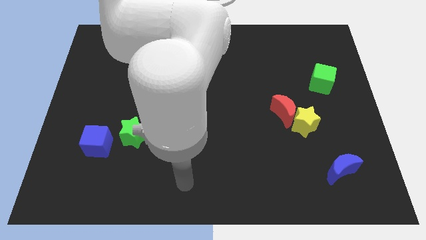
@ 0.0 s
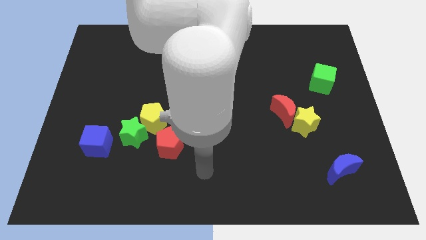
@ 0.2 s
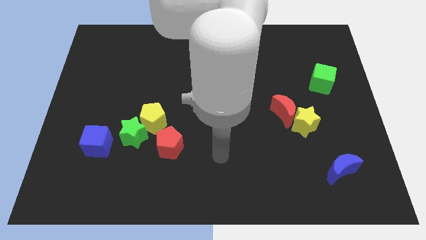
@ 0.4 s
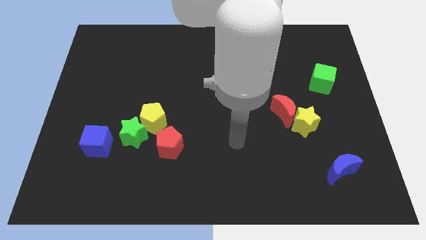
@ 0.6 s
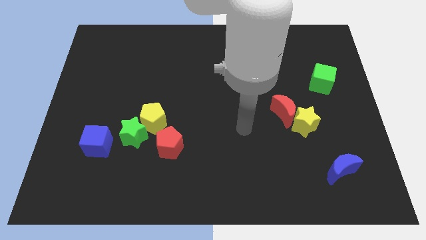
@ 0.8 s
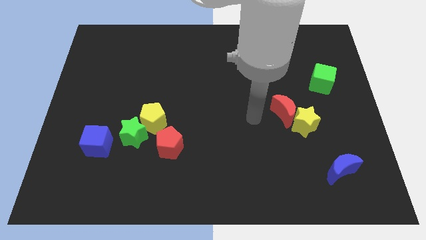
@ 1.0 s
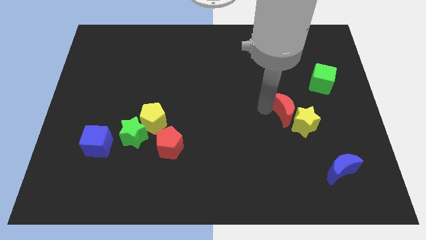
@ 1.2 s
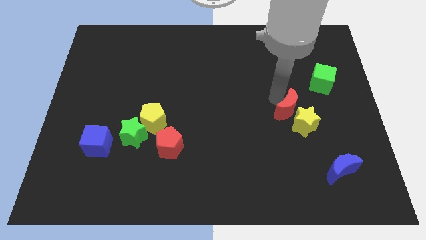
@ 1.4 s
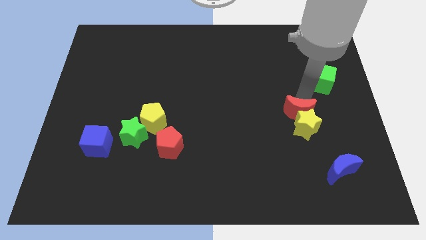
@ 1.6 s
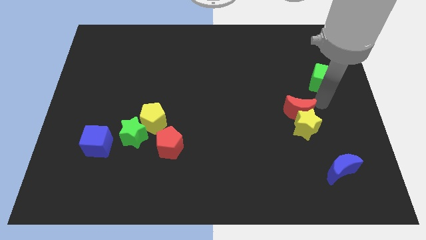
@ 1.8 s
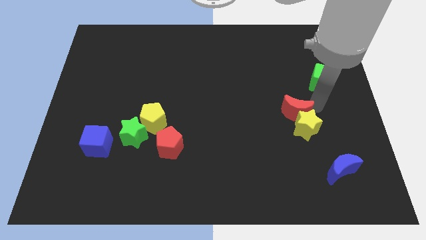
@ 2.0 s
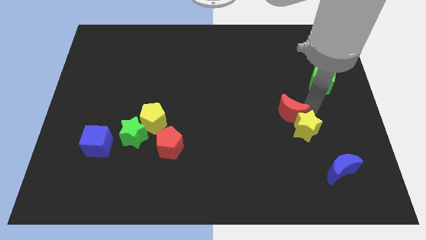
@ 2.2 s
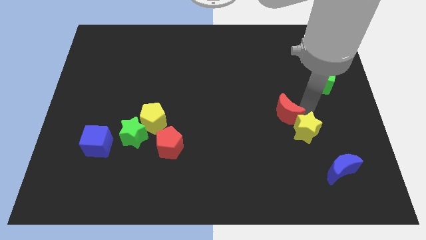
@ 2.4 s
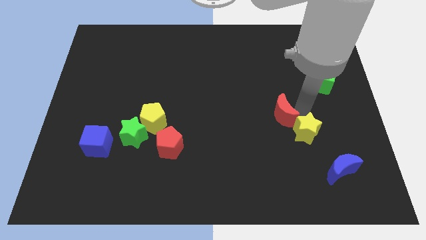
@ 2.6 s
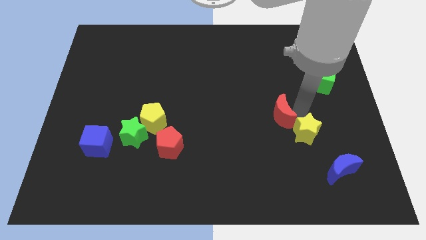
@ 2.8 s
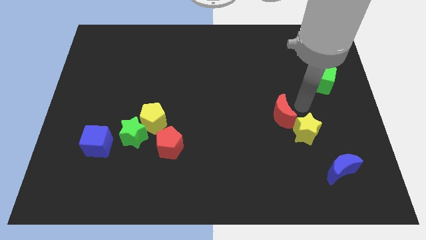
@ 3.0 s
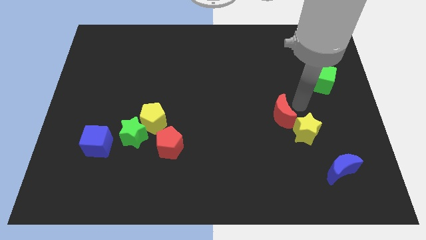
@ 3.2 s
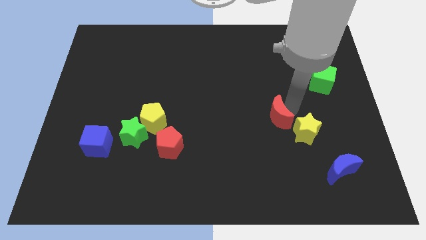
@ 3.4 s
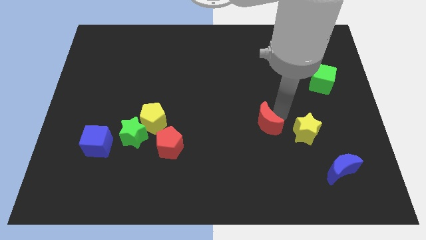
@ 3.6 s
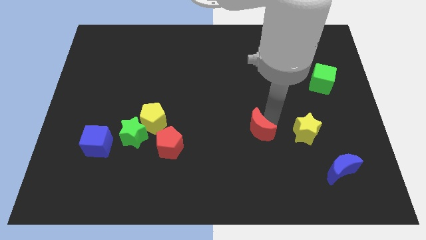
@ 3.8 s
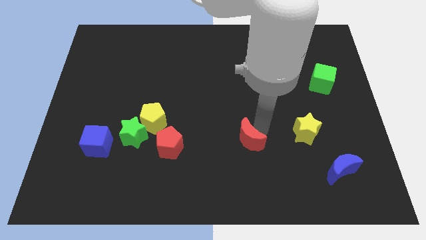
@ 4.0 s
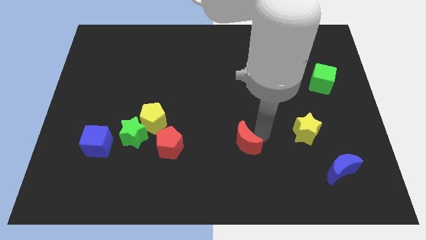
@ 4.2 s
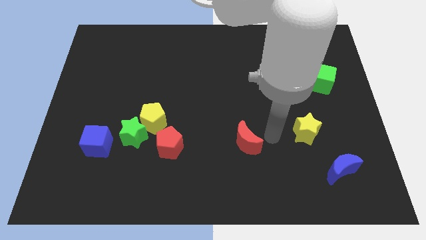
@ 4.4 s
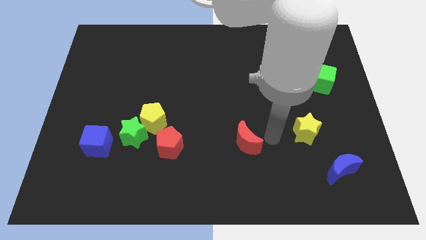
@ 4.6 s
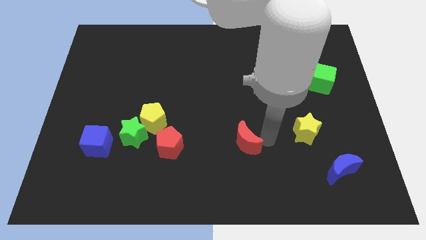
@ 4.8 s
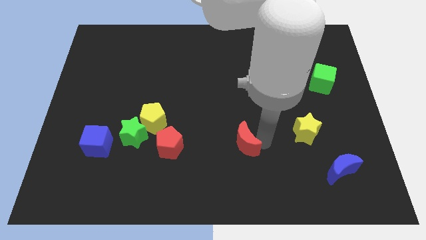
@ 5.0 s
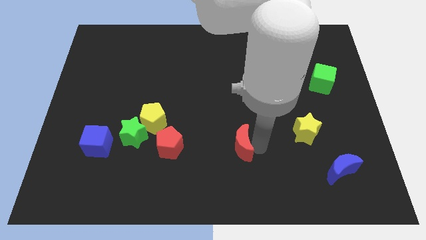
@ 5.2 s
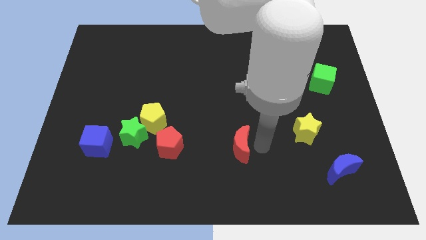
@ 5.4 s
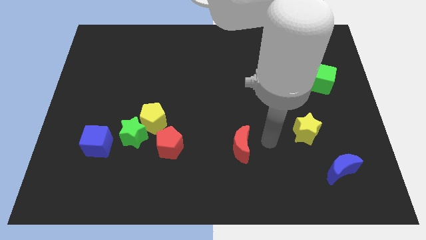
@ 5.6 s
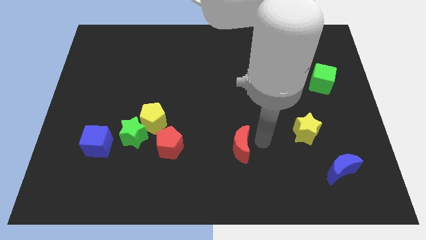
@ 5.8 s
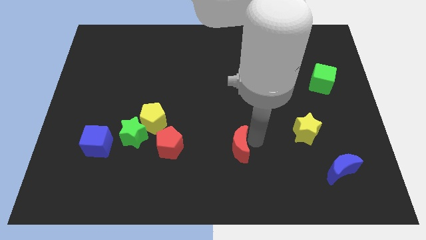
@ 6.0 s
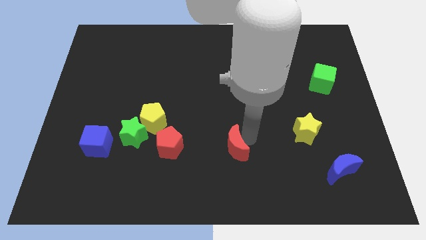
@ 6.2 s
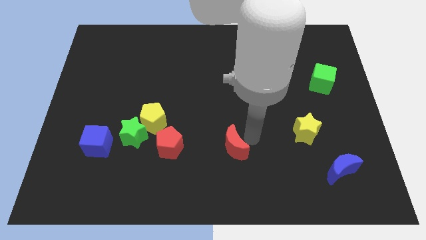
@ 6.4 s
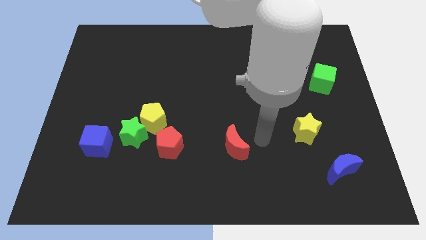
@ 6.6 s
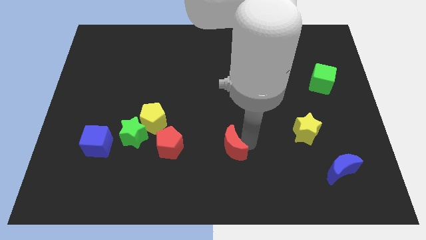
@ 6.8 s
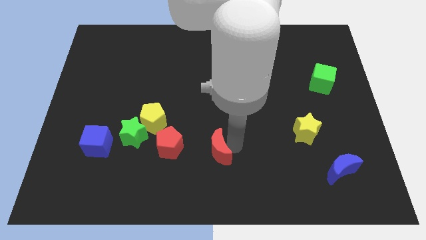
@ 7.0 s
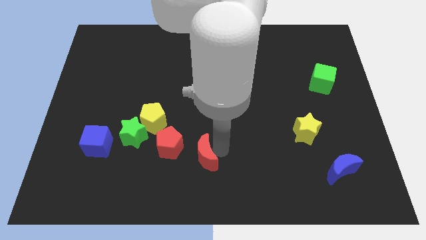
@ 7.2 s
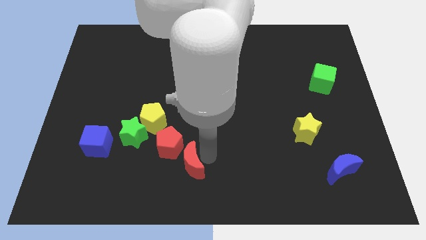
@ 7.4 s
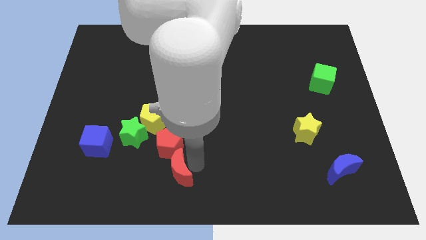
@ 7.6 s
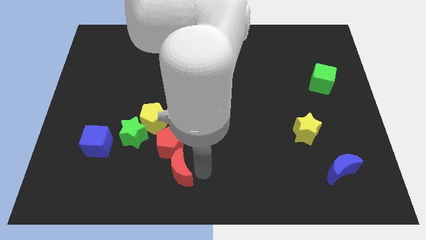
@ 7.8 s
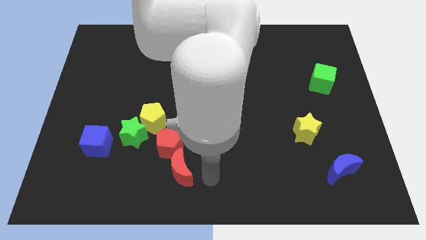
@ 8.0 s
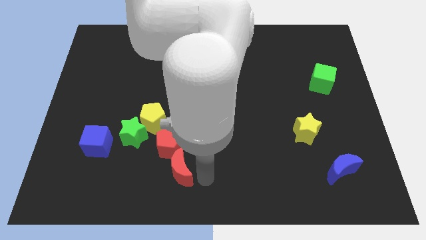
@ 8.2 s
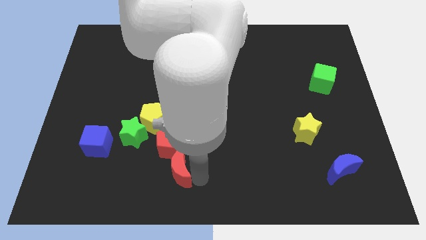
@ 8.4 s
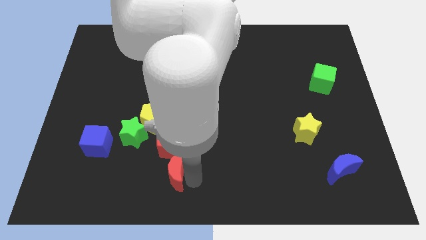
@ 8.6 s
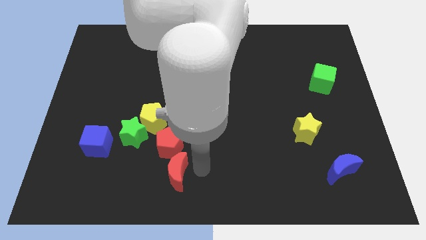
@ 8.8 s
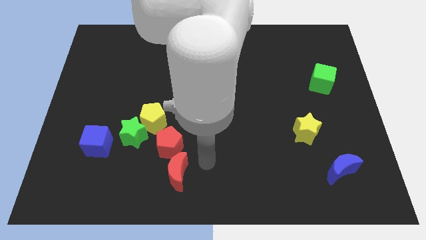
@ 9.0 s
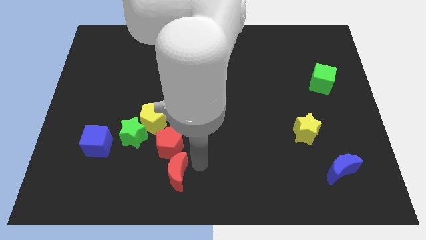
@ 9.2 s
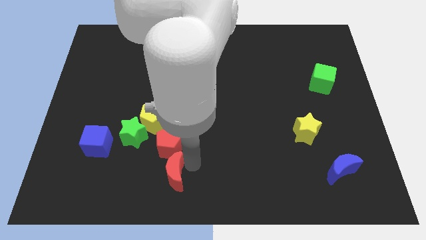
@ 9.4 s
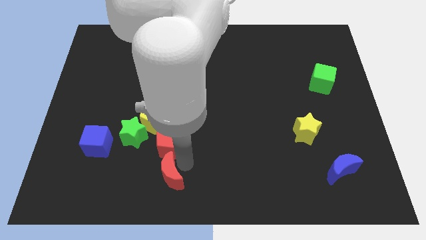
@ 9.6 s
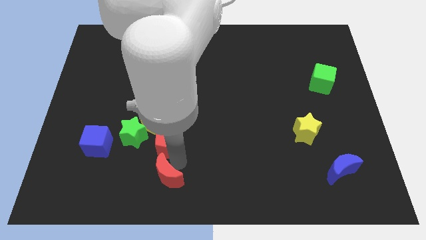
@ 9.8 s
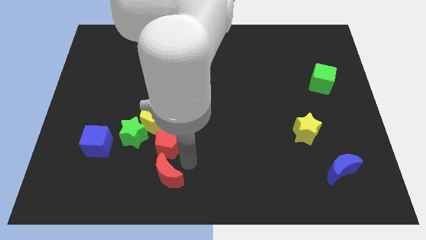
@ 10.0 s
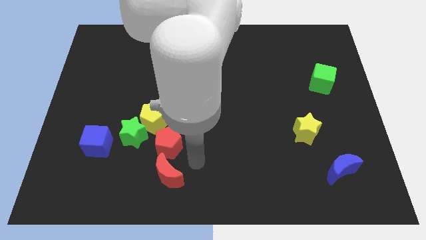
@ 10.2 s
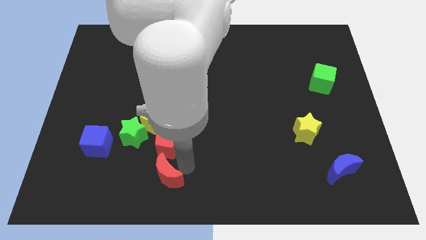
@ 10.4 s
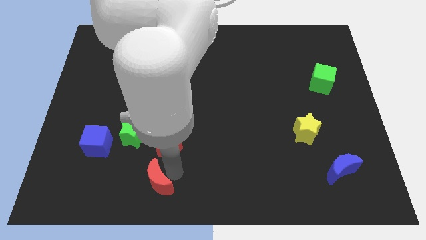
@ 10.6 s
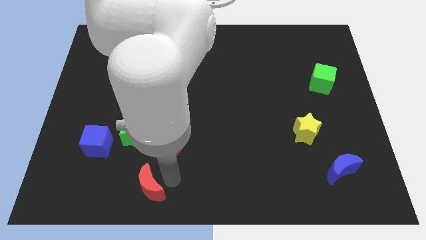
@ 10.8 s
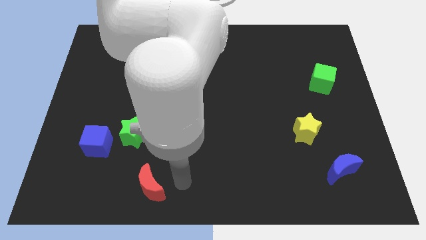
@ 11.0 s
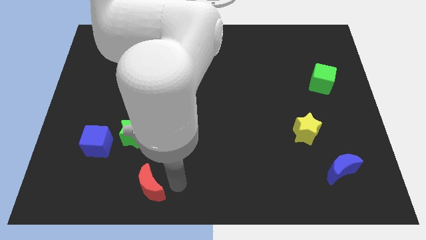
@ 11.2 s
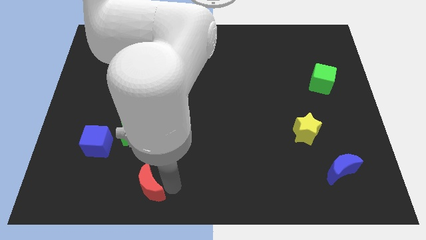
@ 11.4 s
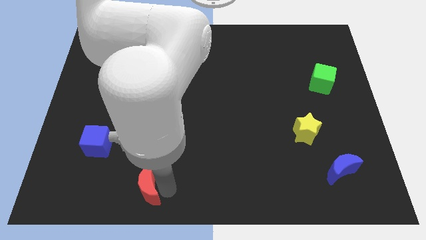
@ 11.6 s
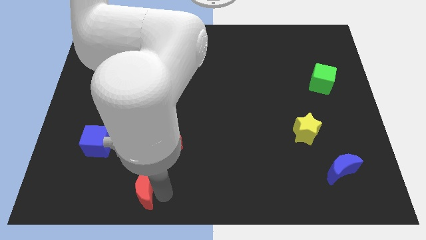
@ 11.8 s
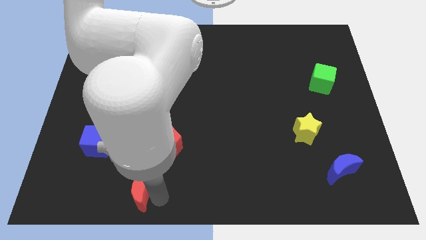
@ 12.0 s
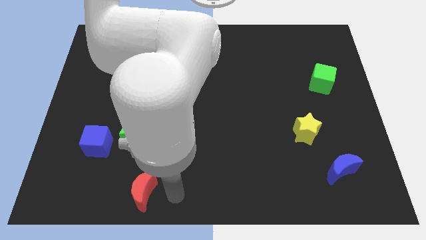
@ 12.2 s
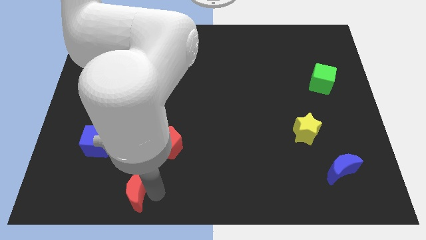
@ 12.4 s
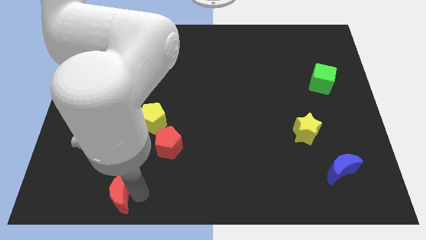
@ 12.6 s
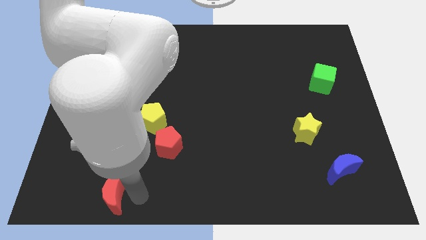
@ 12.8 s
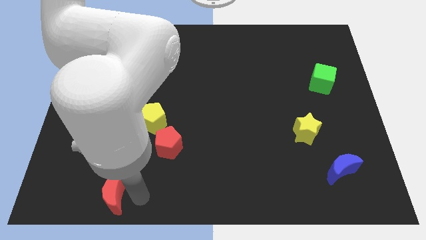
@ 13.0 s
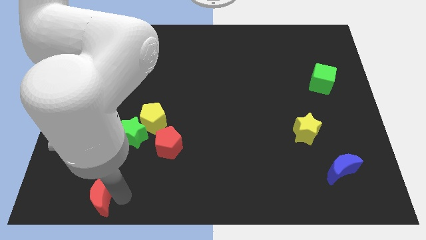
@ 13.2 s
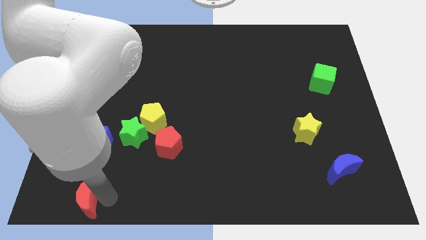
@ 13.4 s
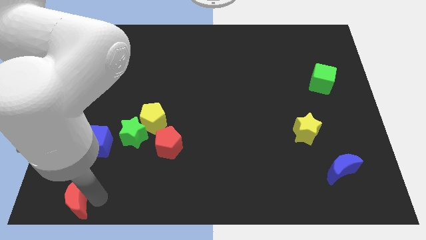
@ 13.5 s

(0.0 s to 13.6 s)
push the red moon to the bottom left
